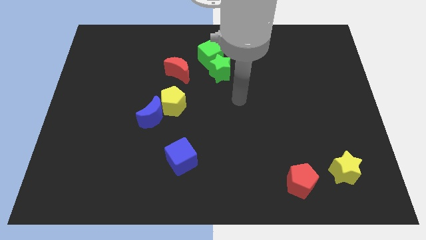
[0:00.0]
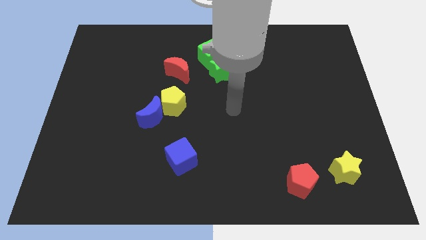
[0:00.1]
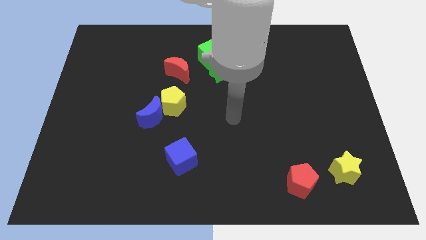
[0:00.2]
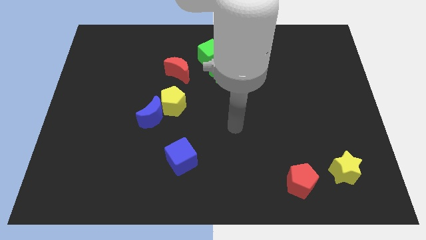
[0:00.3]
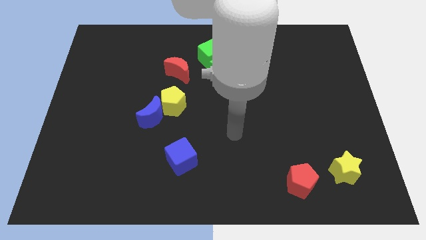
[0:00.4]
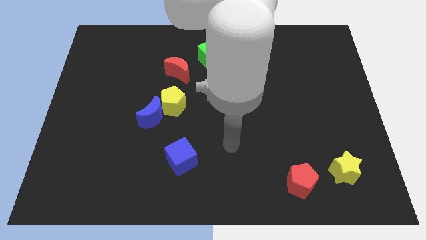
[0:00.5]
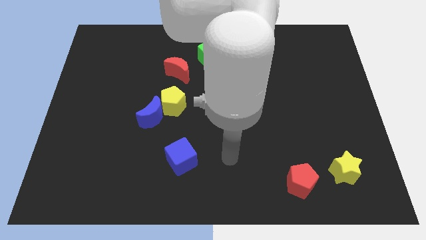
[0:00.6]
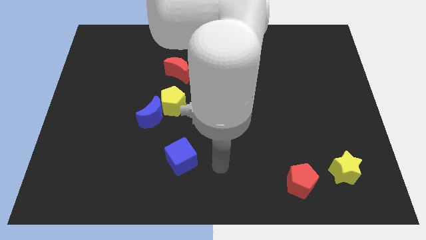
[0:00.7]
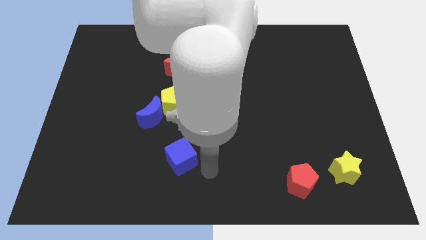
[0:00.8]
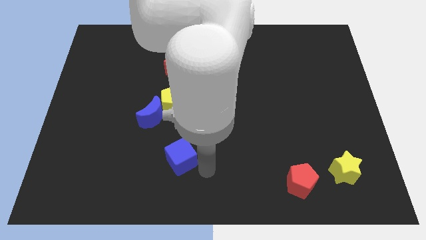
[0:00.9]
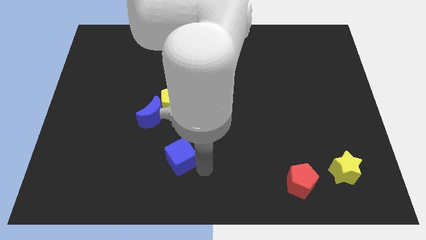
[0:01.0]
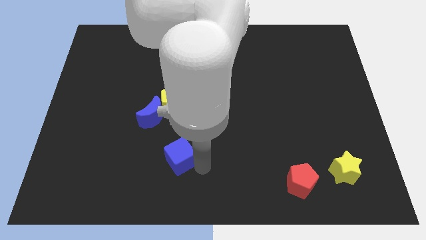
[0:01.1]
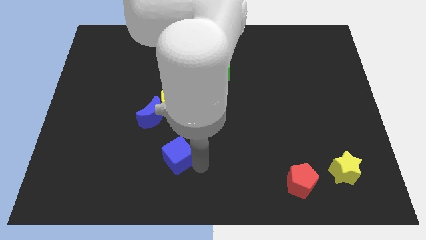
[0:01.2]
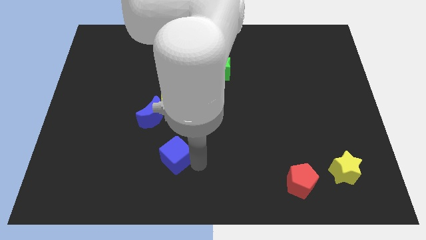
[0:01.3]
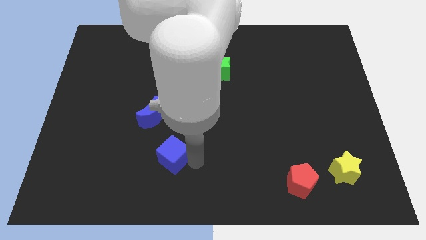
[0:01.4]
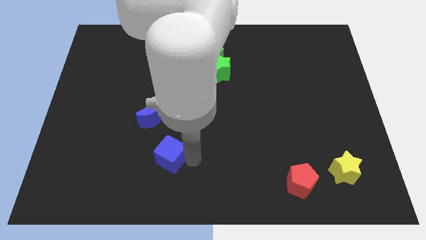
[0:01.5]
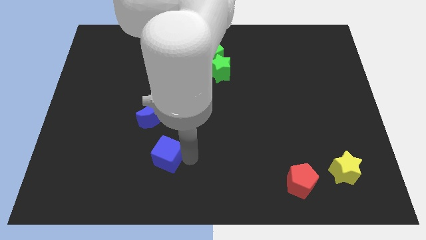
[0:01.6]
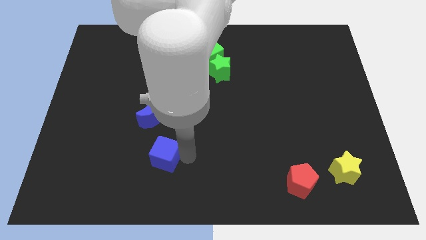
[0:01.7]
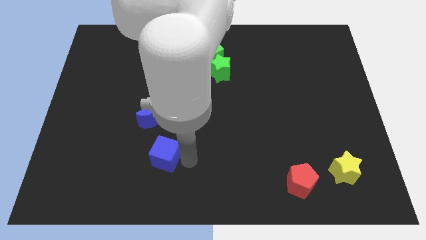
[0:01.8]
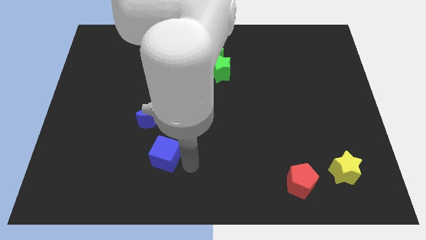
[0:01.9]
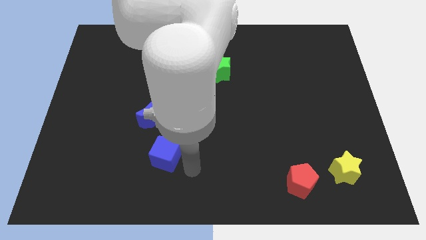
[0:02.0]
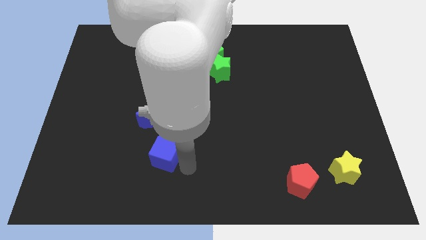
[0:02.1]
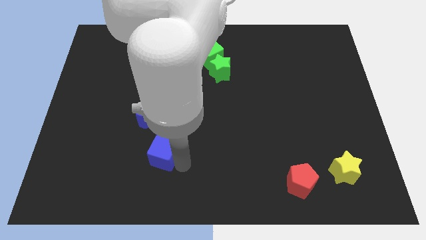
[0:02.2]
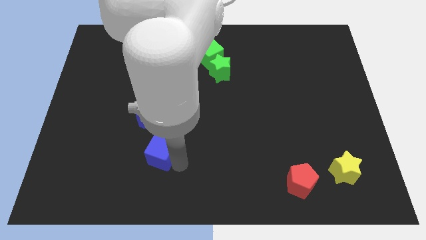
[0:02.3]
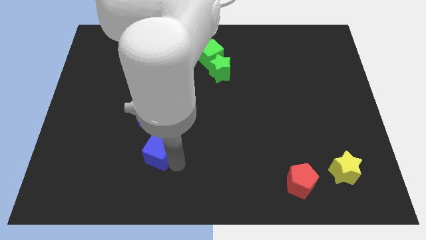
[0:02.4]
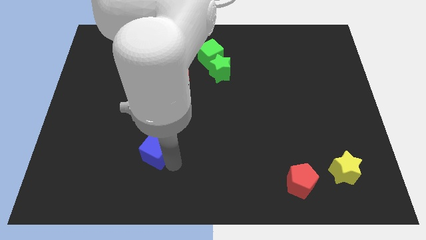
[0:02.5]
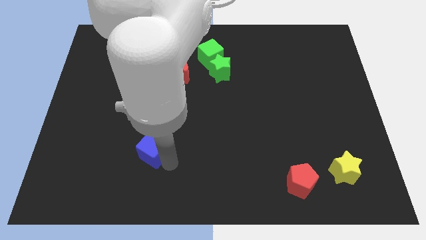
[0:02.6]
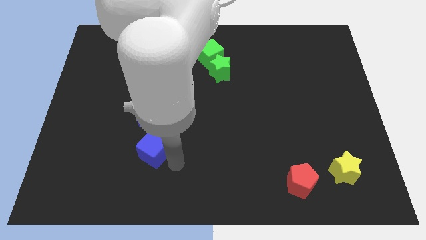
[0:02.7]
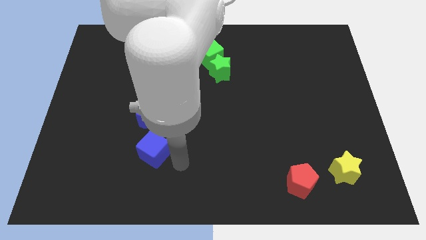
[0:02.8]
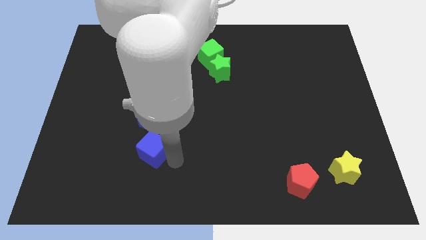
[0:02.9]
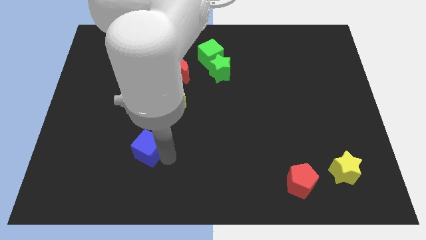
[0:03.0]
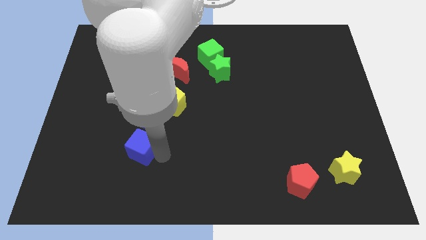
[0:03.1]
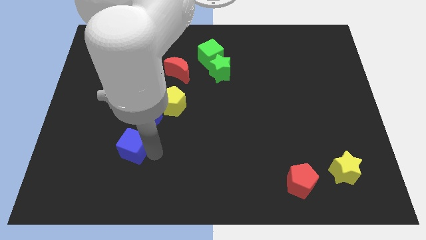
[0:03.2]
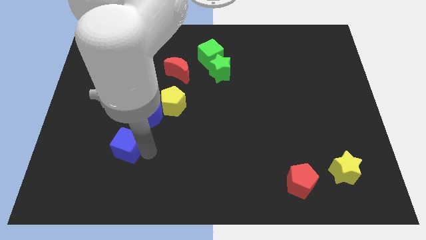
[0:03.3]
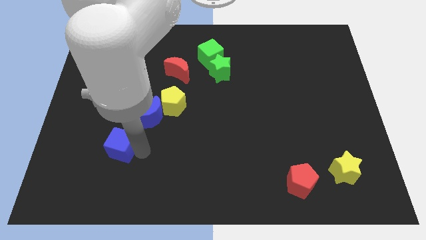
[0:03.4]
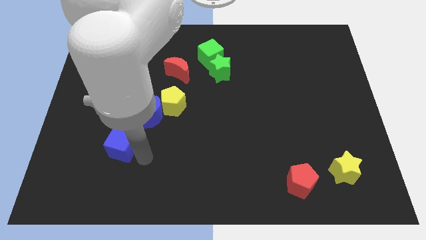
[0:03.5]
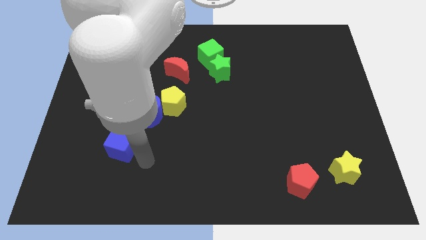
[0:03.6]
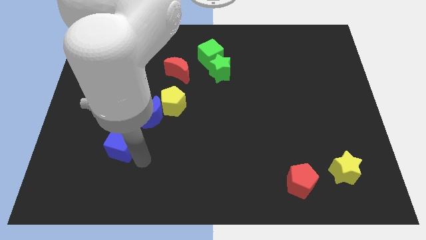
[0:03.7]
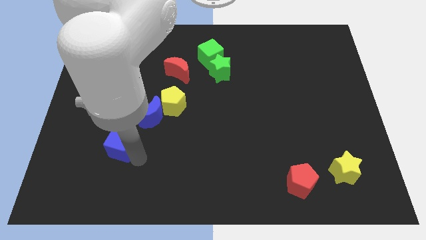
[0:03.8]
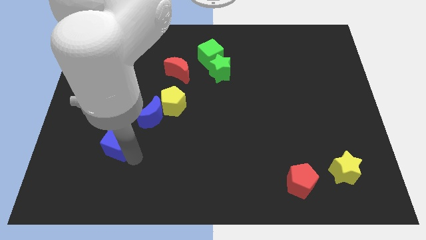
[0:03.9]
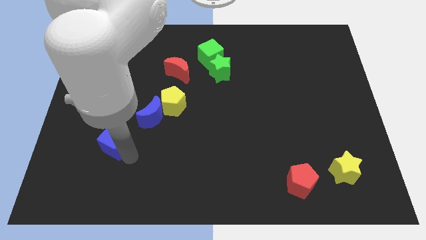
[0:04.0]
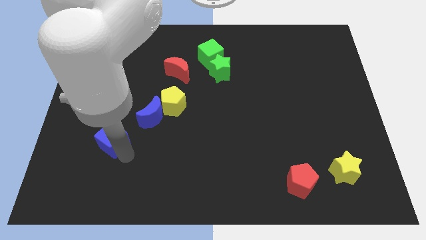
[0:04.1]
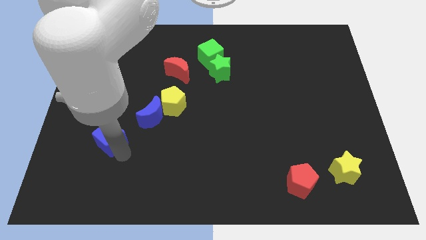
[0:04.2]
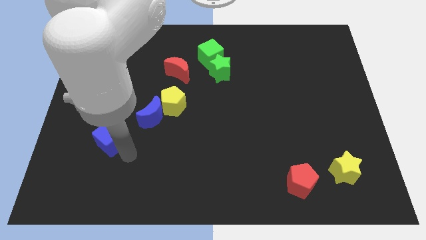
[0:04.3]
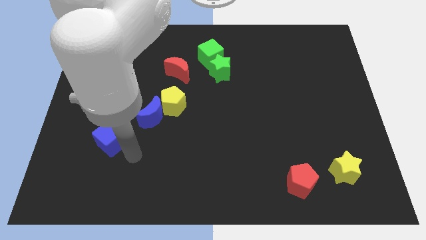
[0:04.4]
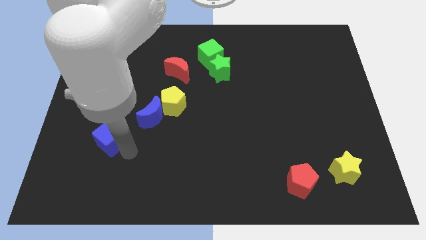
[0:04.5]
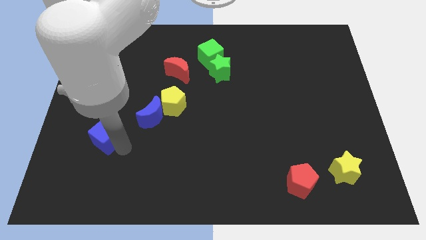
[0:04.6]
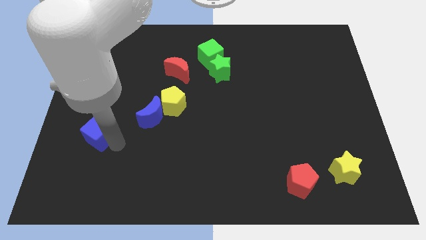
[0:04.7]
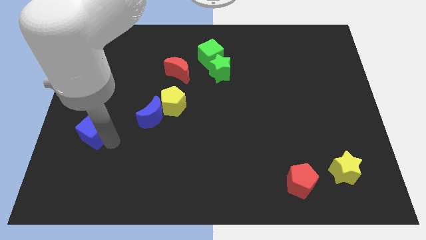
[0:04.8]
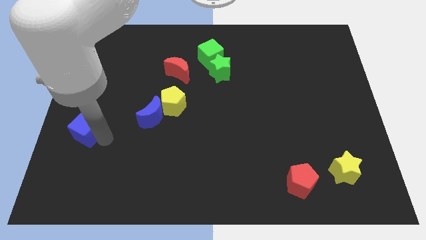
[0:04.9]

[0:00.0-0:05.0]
put the blue cube to the center left

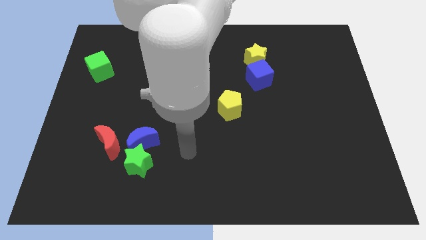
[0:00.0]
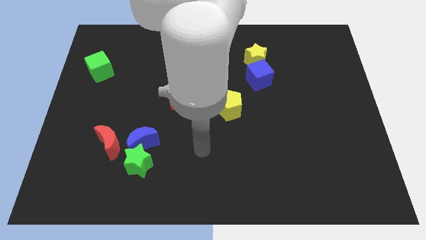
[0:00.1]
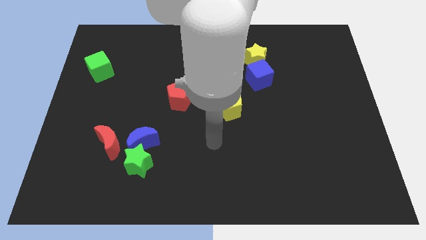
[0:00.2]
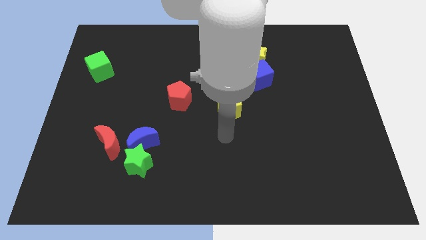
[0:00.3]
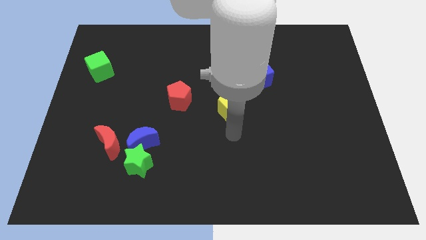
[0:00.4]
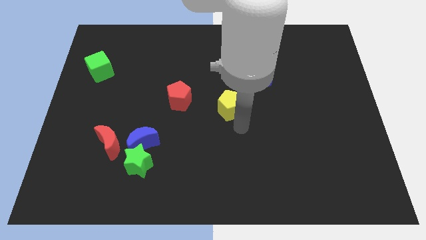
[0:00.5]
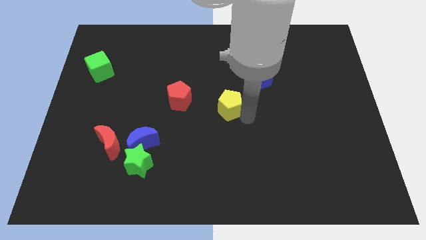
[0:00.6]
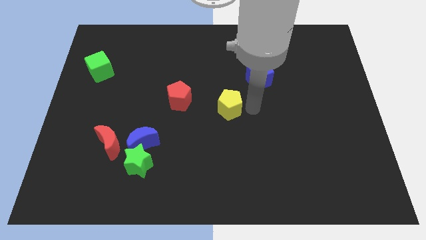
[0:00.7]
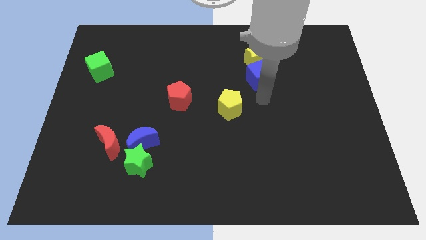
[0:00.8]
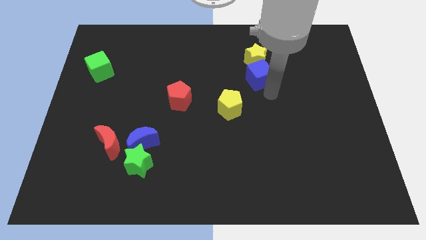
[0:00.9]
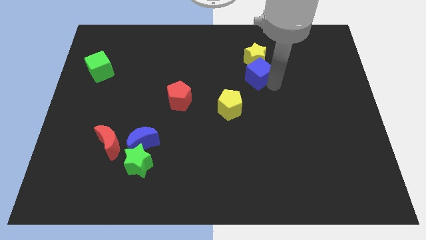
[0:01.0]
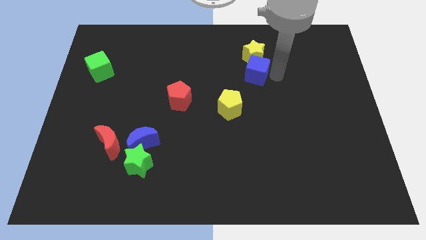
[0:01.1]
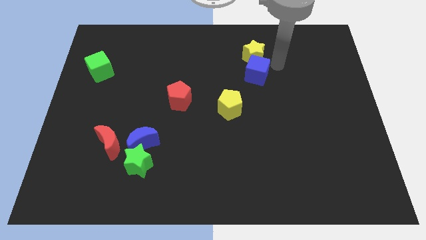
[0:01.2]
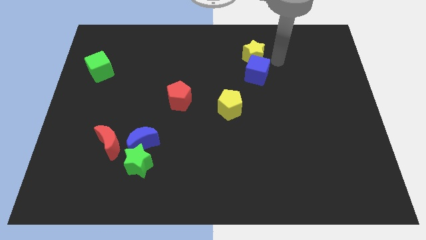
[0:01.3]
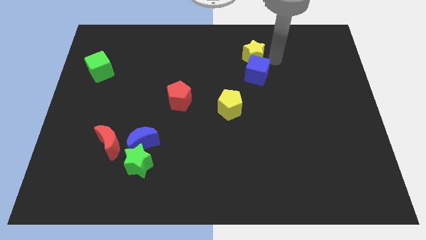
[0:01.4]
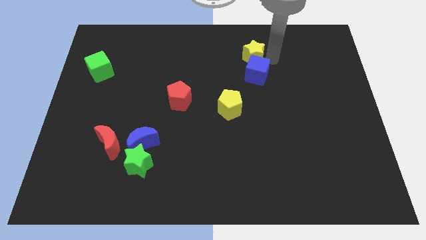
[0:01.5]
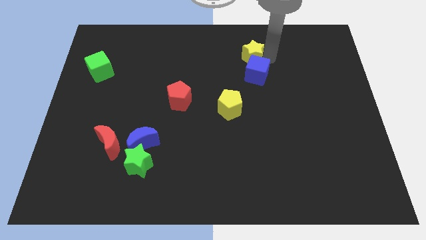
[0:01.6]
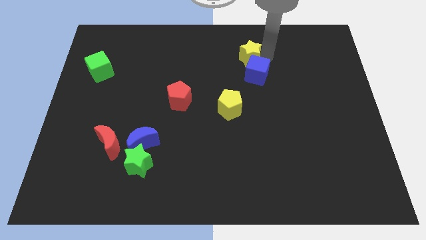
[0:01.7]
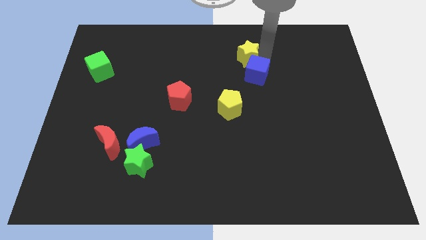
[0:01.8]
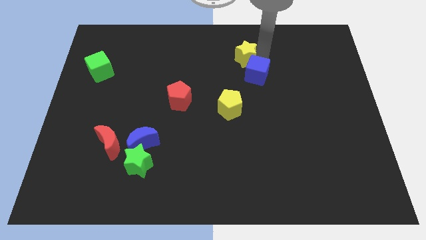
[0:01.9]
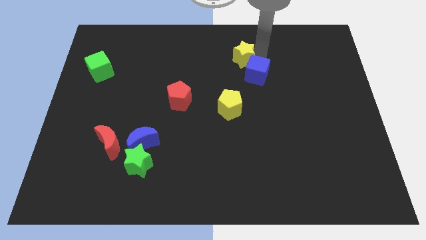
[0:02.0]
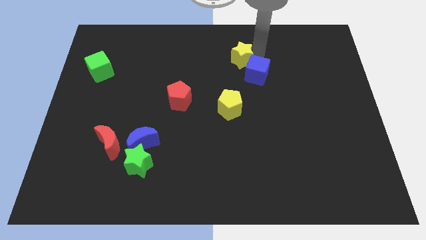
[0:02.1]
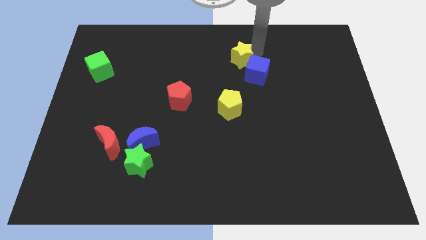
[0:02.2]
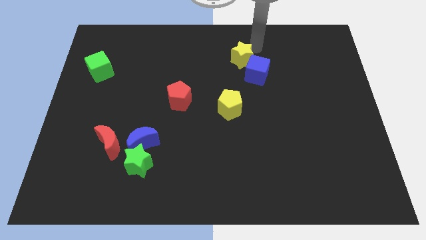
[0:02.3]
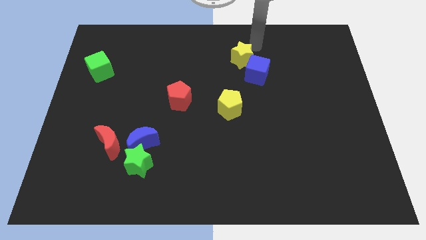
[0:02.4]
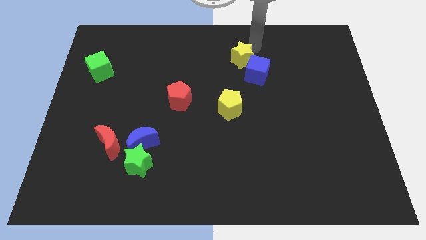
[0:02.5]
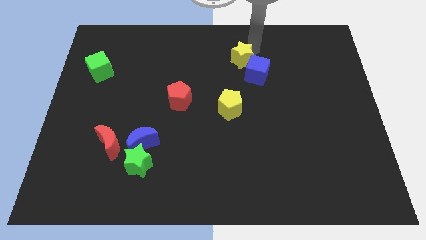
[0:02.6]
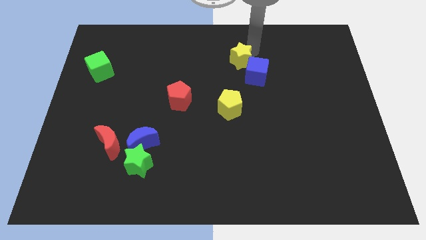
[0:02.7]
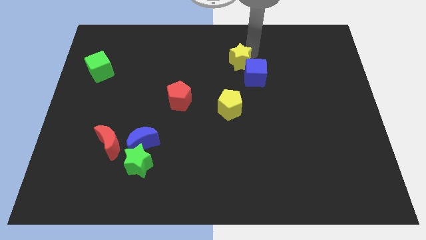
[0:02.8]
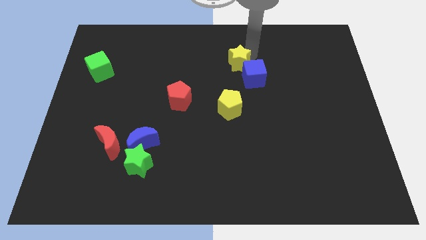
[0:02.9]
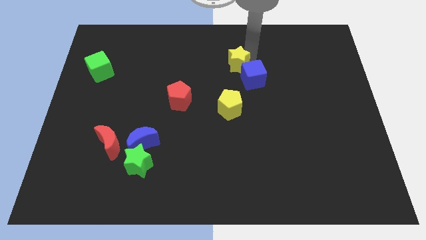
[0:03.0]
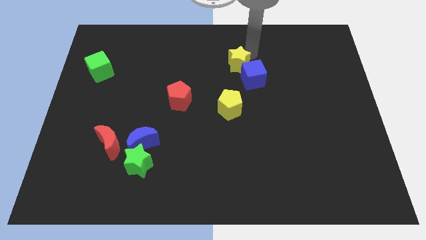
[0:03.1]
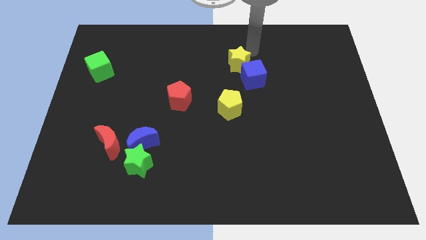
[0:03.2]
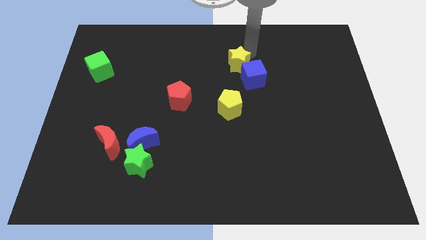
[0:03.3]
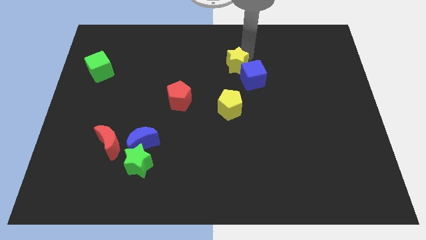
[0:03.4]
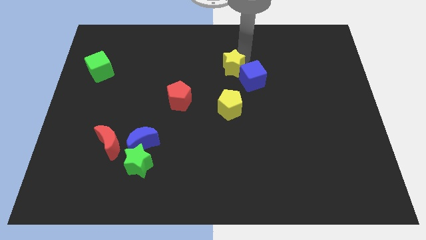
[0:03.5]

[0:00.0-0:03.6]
push the yellow star to the center
